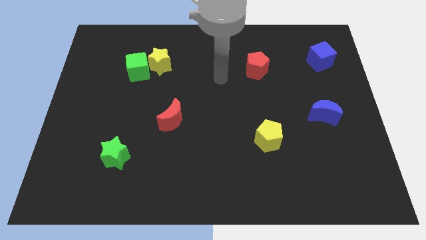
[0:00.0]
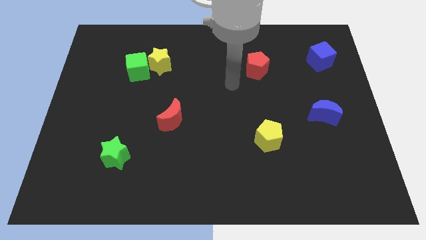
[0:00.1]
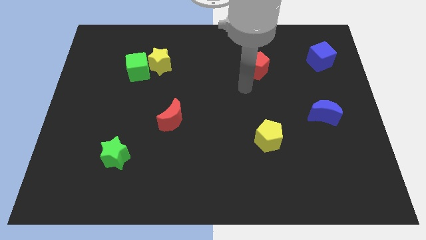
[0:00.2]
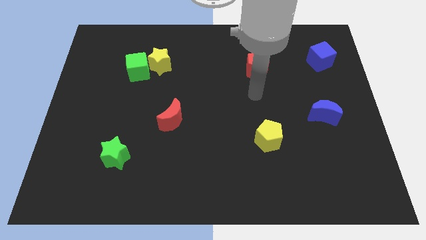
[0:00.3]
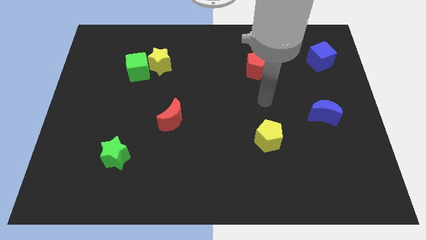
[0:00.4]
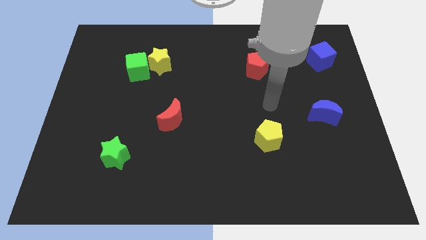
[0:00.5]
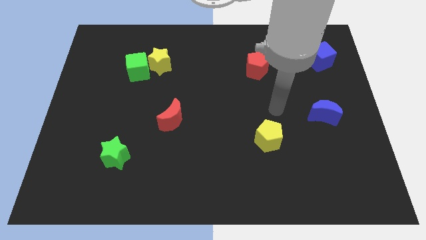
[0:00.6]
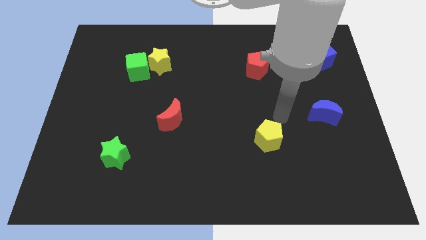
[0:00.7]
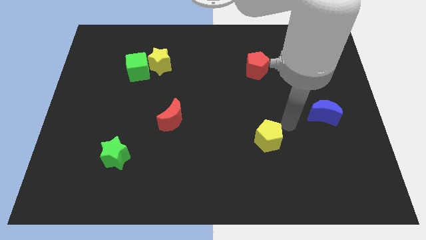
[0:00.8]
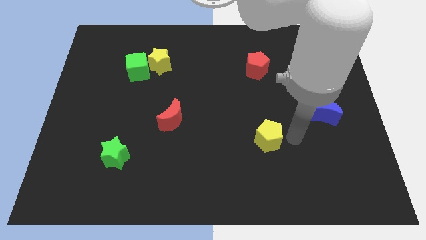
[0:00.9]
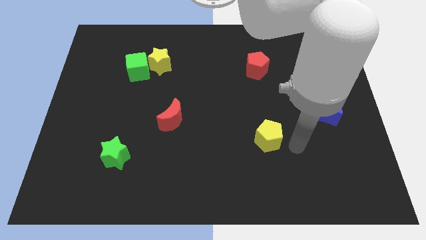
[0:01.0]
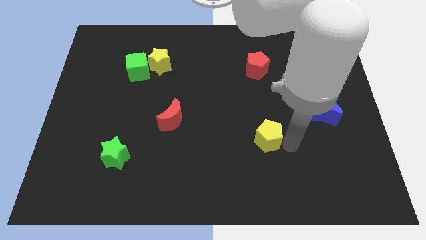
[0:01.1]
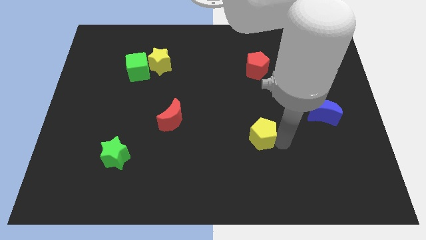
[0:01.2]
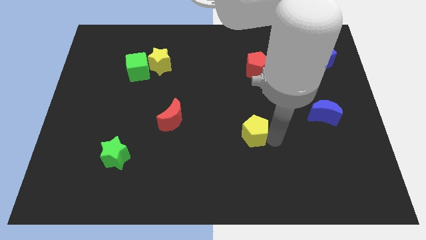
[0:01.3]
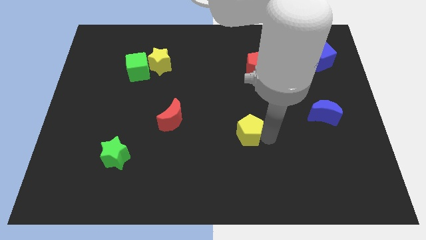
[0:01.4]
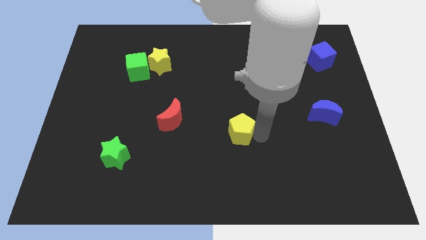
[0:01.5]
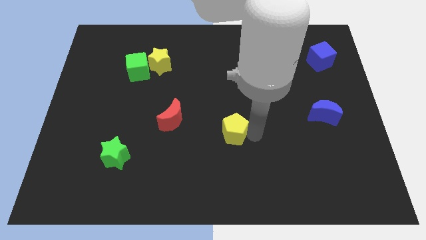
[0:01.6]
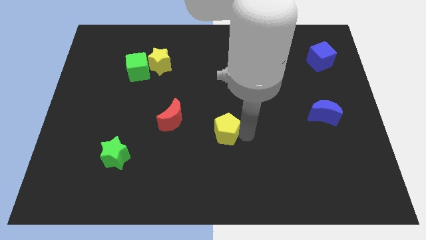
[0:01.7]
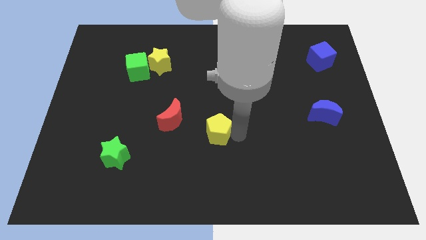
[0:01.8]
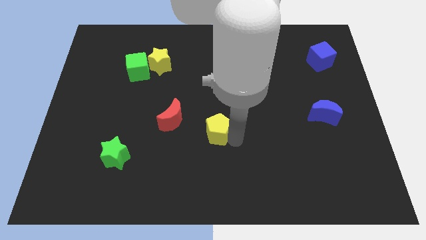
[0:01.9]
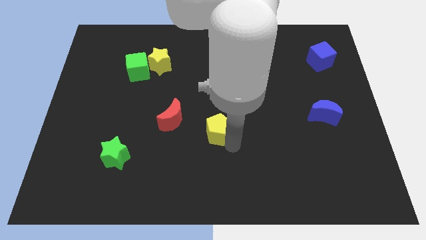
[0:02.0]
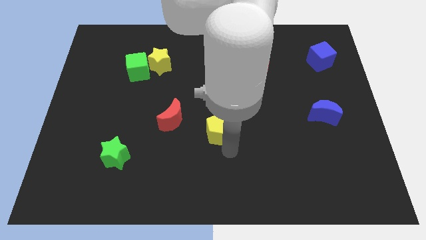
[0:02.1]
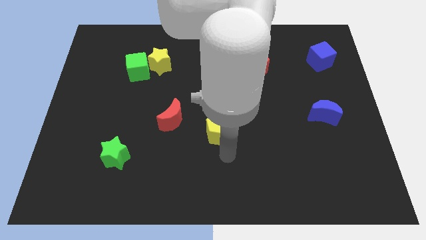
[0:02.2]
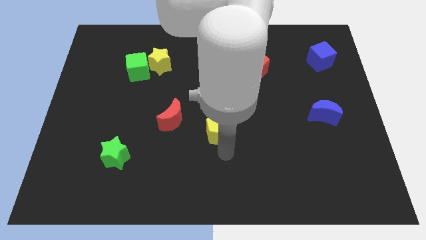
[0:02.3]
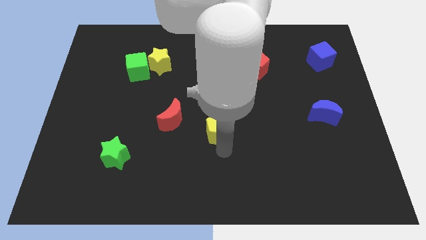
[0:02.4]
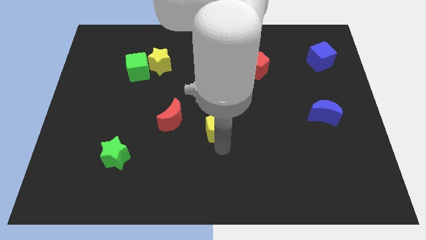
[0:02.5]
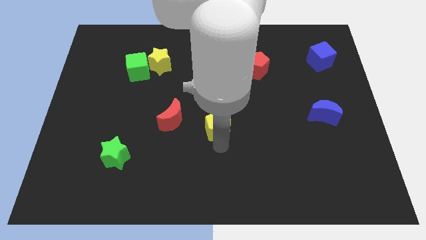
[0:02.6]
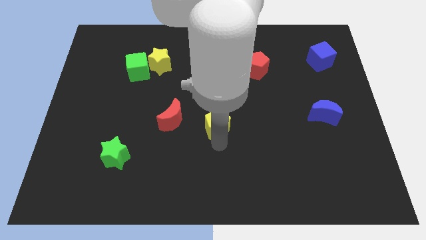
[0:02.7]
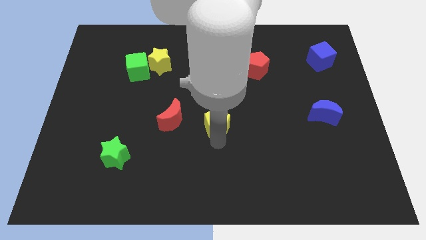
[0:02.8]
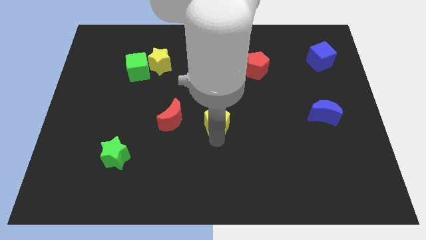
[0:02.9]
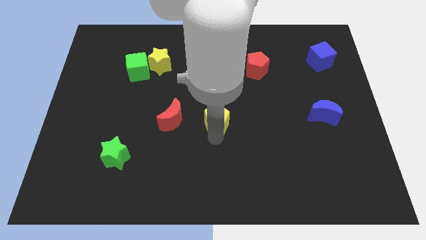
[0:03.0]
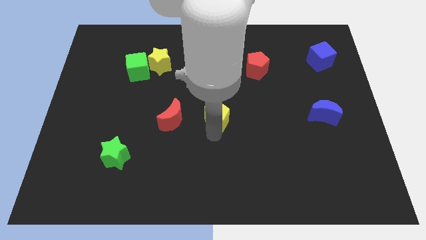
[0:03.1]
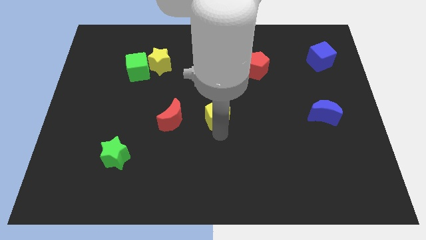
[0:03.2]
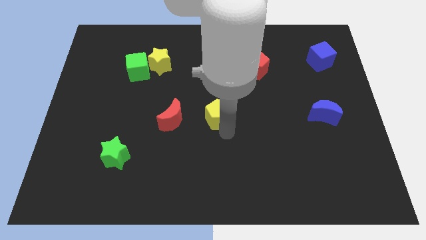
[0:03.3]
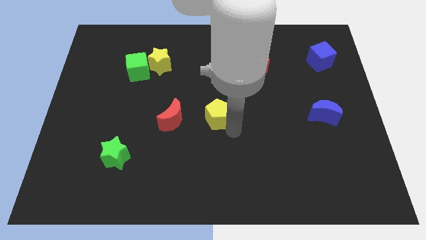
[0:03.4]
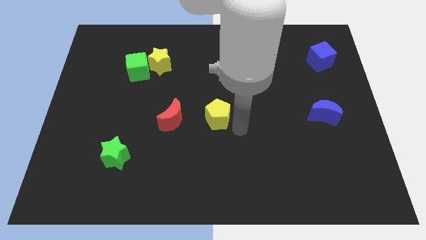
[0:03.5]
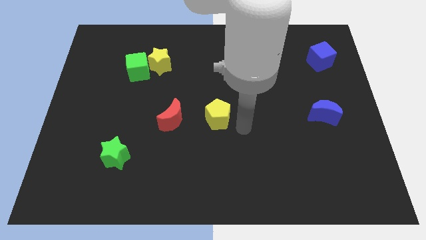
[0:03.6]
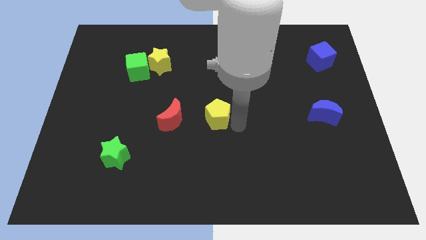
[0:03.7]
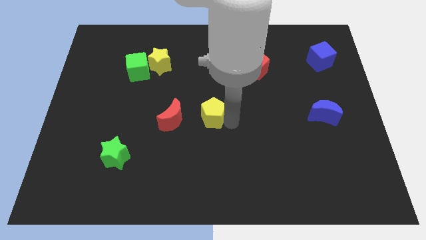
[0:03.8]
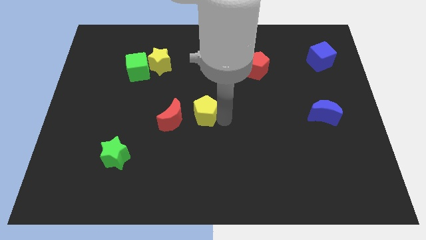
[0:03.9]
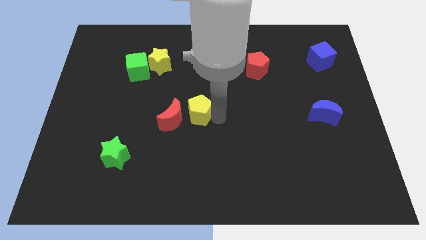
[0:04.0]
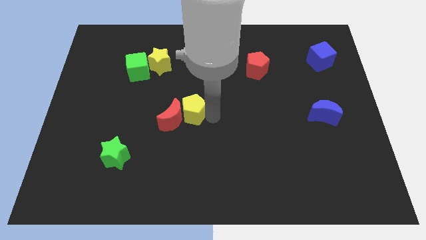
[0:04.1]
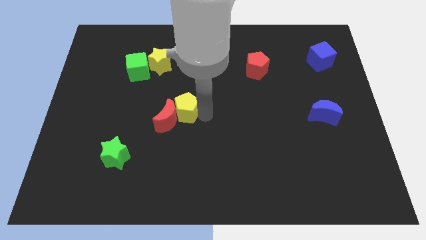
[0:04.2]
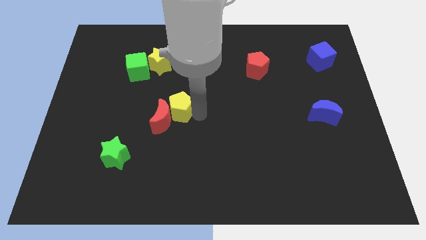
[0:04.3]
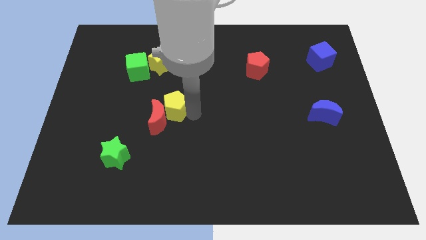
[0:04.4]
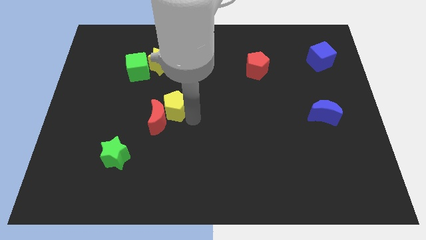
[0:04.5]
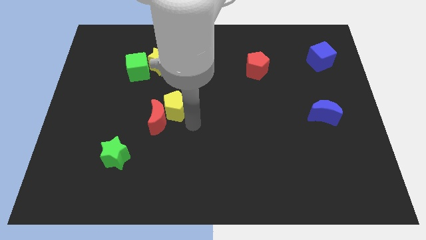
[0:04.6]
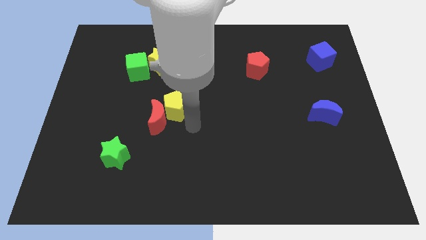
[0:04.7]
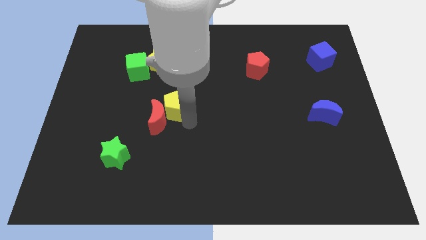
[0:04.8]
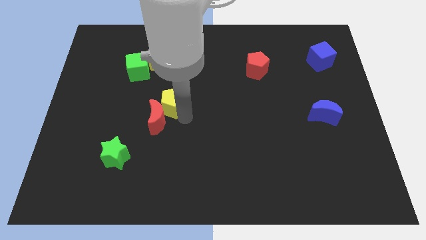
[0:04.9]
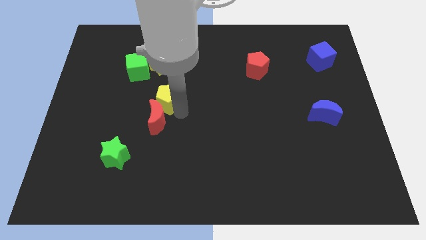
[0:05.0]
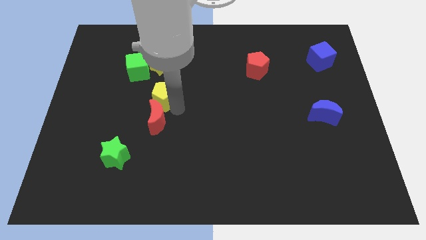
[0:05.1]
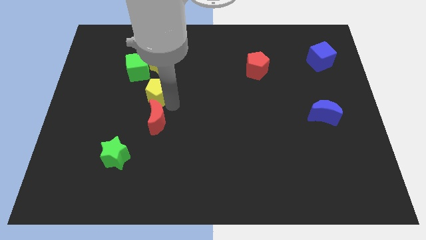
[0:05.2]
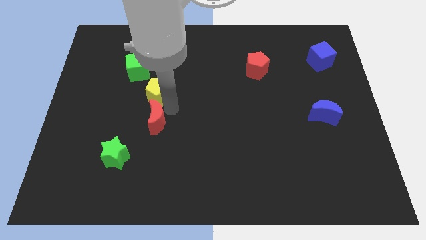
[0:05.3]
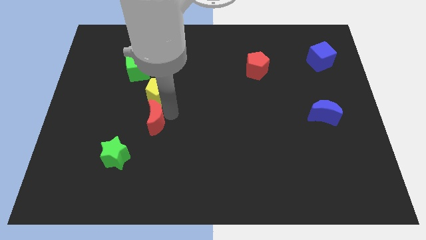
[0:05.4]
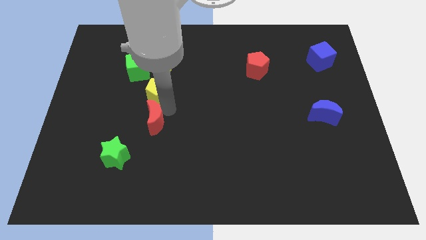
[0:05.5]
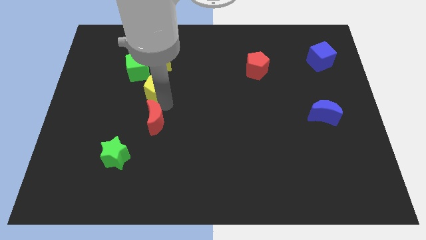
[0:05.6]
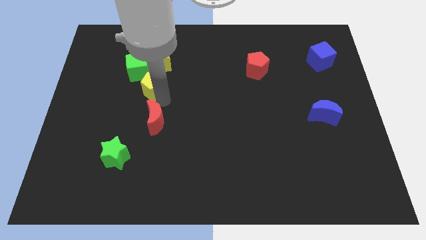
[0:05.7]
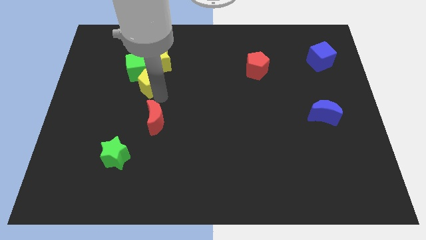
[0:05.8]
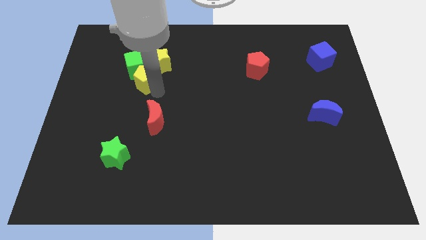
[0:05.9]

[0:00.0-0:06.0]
put the yellow pentagon next to the green cube
